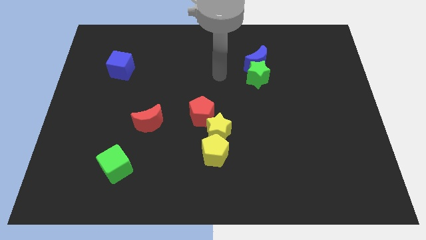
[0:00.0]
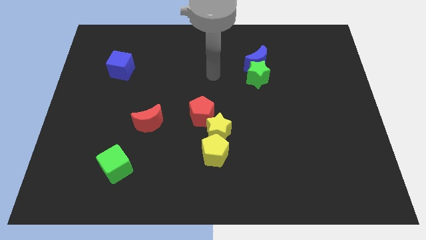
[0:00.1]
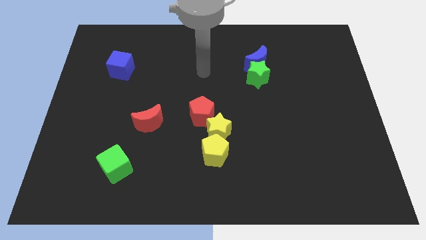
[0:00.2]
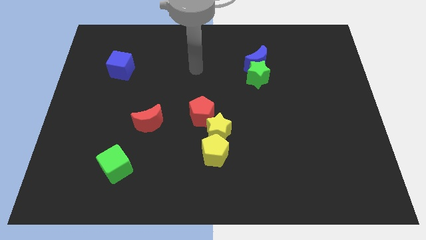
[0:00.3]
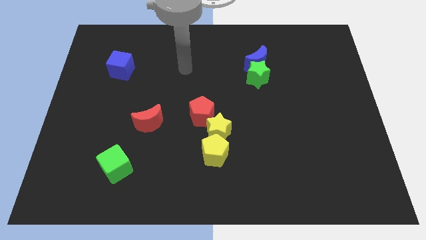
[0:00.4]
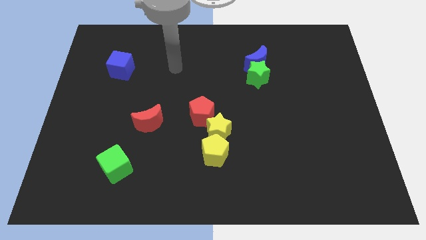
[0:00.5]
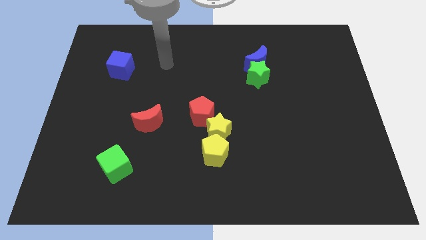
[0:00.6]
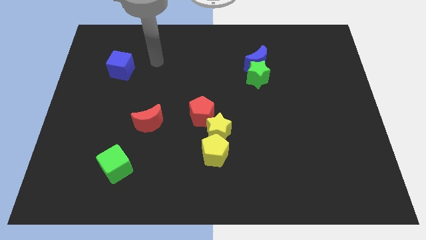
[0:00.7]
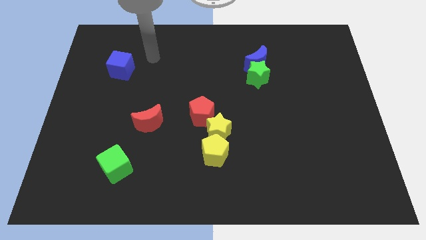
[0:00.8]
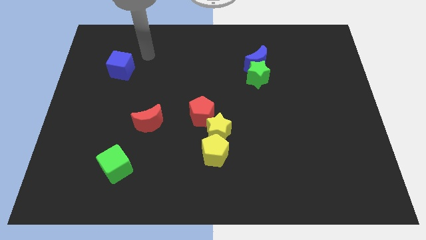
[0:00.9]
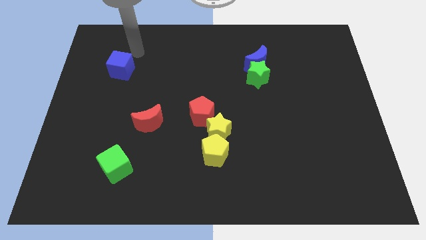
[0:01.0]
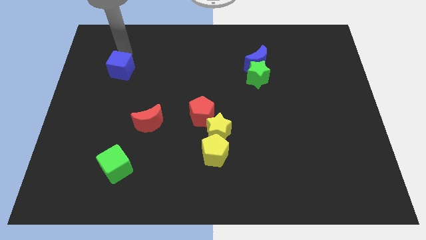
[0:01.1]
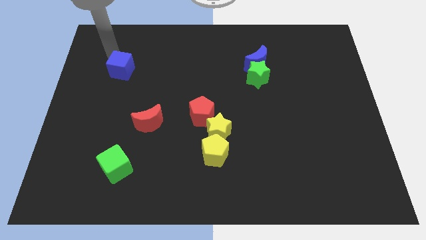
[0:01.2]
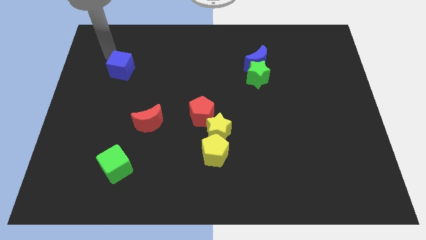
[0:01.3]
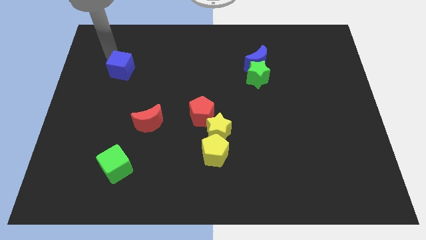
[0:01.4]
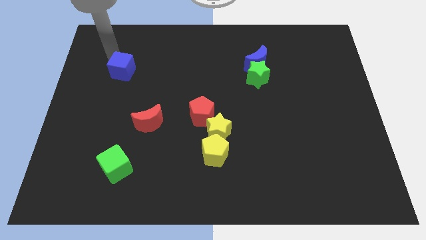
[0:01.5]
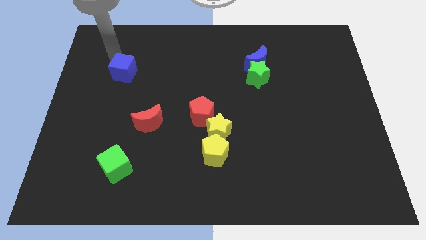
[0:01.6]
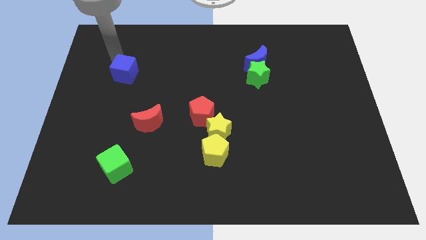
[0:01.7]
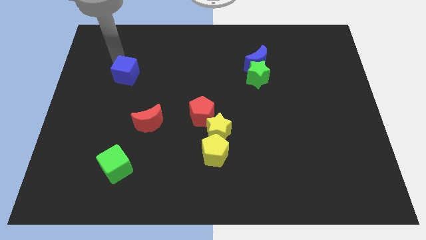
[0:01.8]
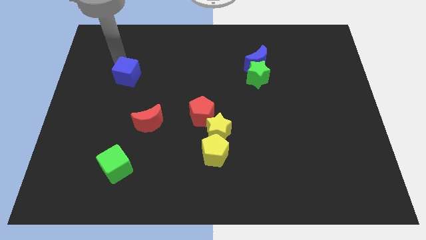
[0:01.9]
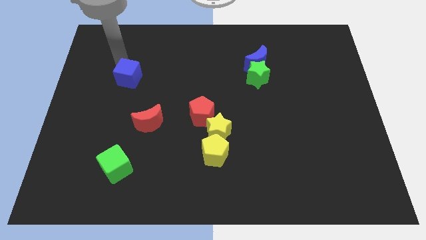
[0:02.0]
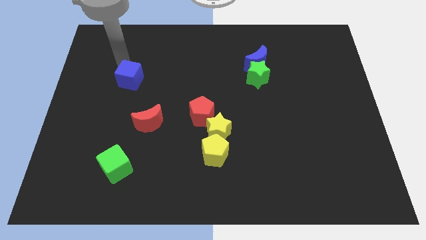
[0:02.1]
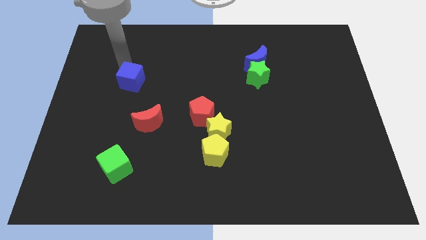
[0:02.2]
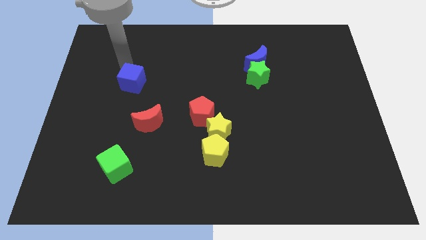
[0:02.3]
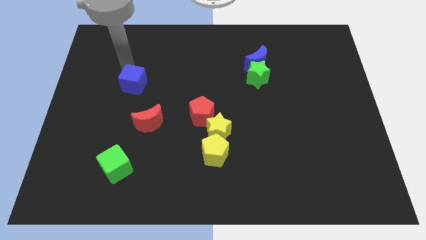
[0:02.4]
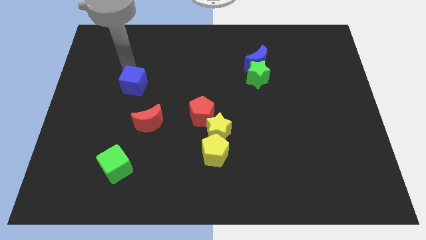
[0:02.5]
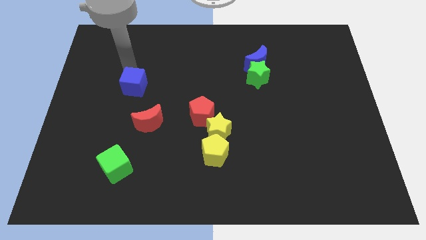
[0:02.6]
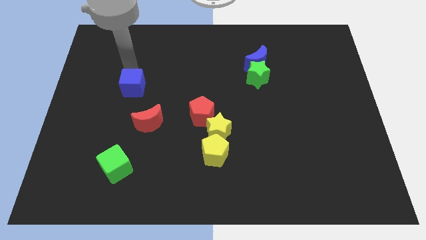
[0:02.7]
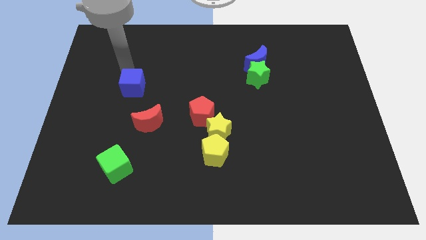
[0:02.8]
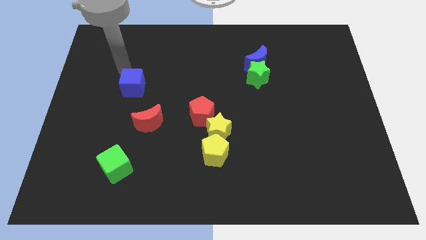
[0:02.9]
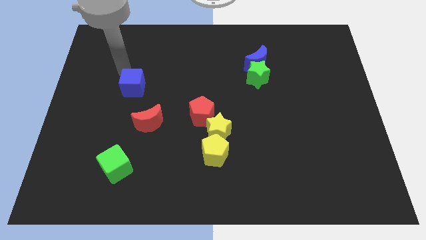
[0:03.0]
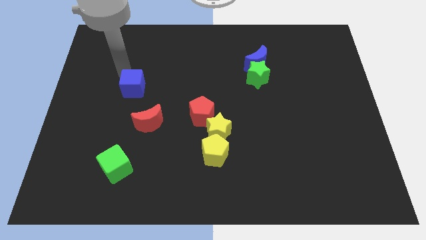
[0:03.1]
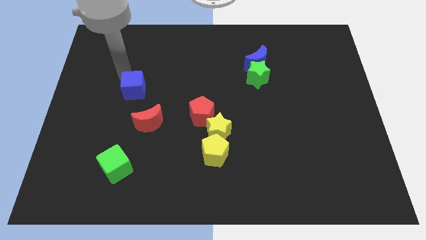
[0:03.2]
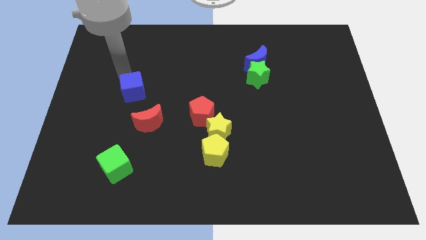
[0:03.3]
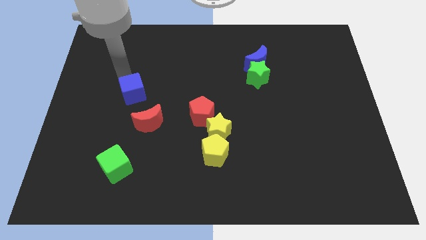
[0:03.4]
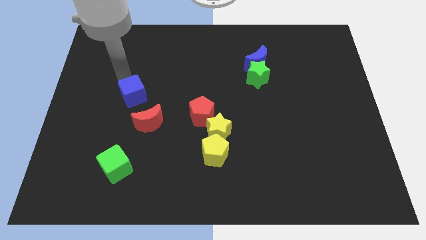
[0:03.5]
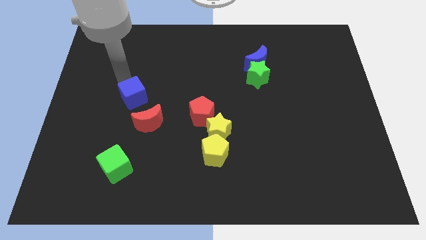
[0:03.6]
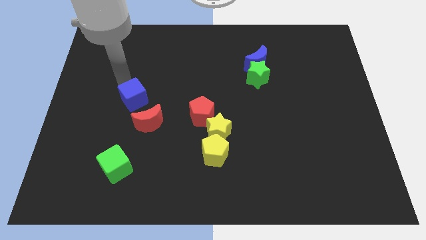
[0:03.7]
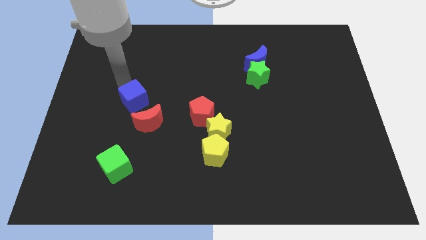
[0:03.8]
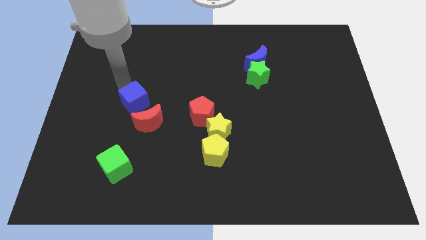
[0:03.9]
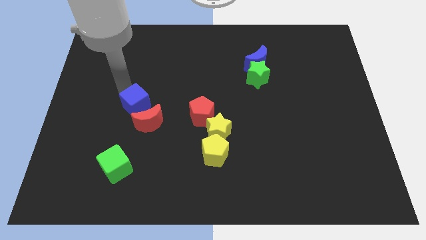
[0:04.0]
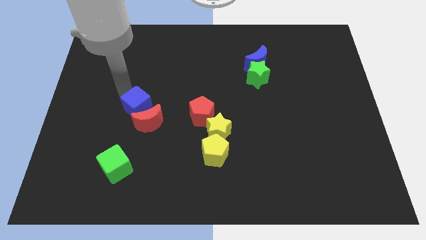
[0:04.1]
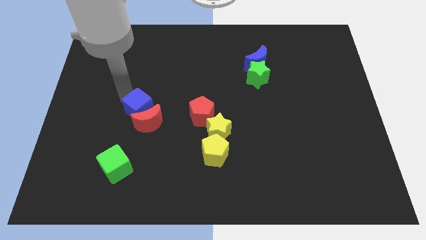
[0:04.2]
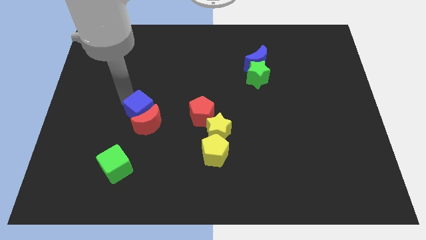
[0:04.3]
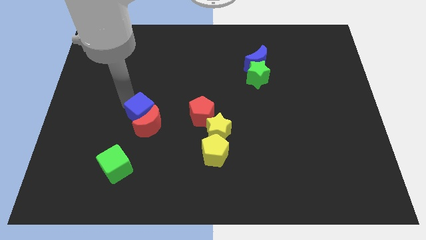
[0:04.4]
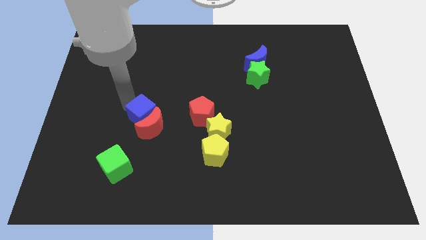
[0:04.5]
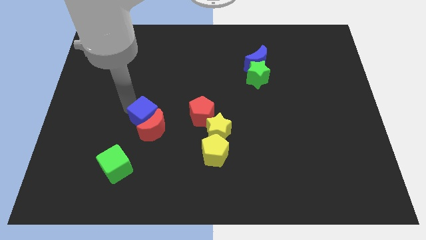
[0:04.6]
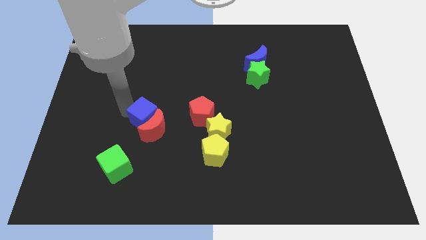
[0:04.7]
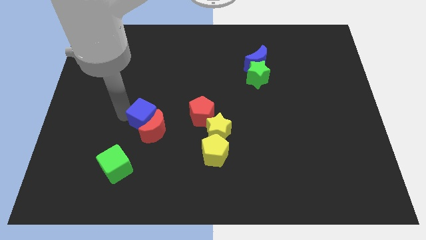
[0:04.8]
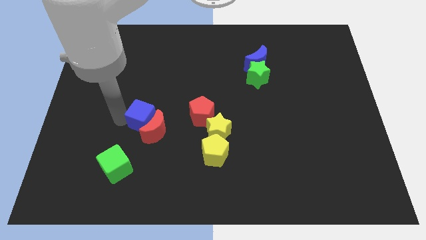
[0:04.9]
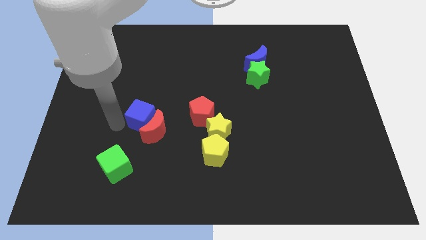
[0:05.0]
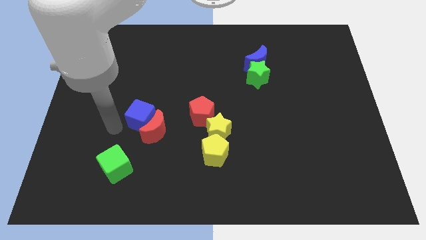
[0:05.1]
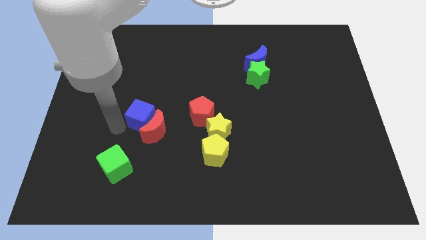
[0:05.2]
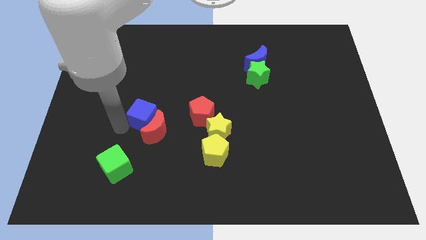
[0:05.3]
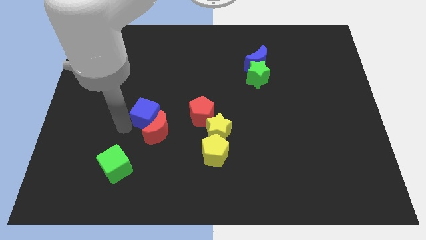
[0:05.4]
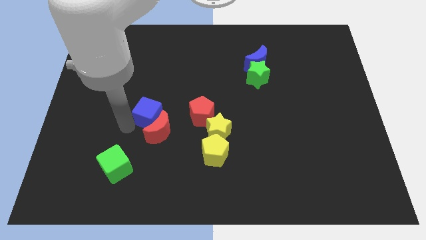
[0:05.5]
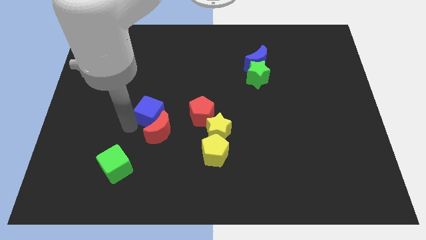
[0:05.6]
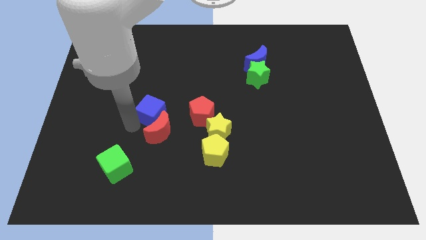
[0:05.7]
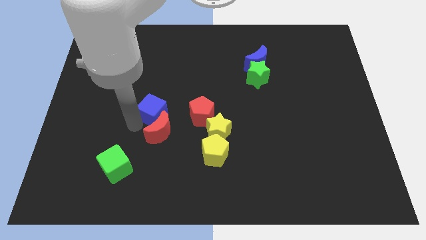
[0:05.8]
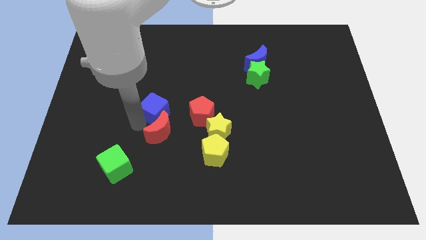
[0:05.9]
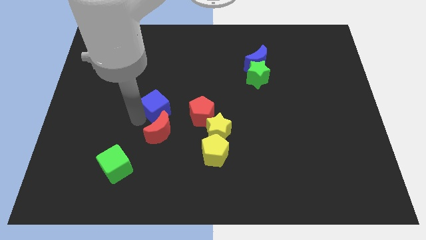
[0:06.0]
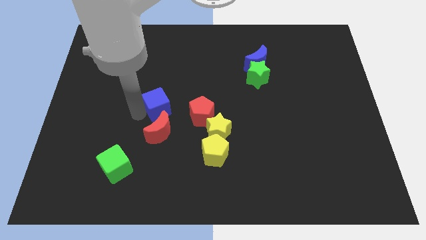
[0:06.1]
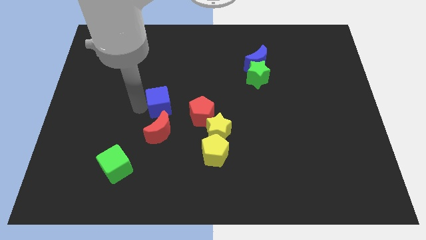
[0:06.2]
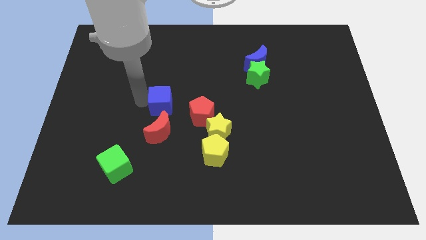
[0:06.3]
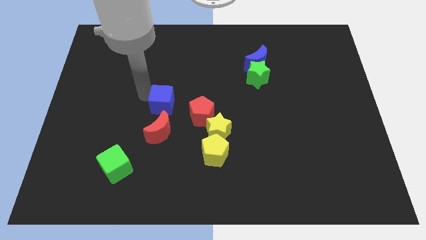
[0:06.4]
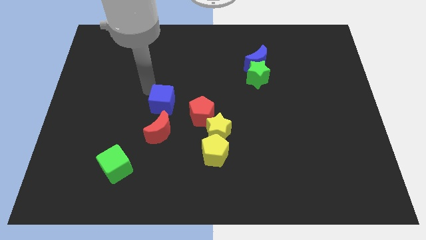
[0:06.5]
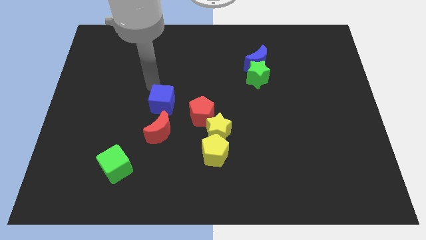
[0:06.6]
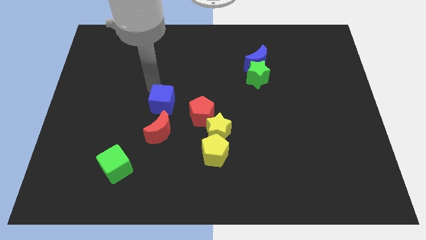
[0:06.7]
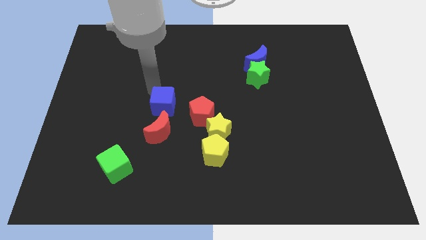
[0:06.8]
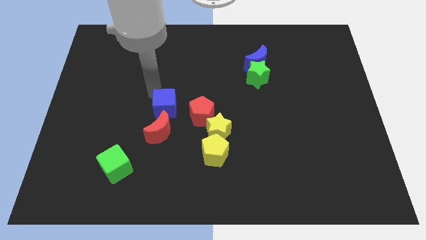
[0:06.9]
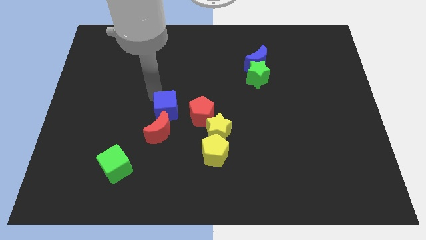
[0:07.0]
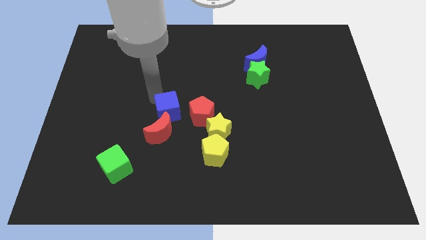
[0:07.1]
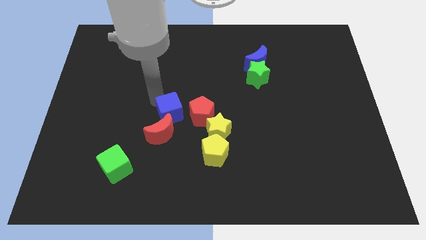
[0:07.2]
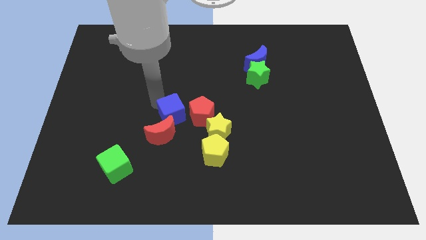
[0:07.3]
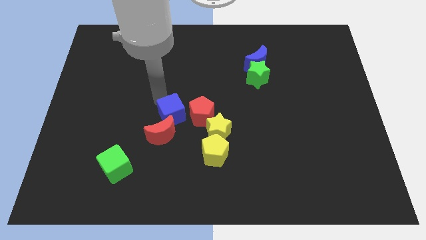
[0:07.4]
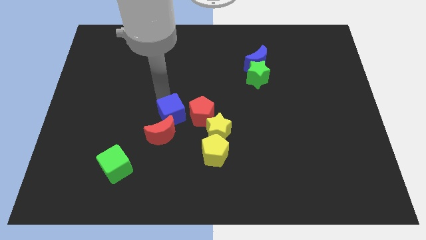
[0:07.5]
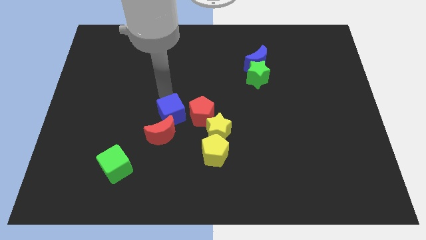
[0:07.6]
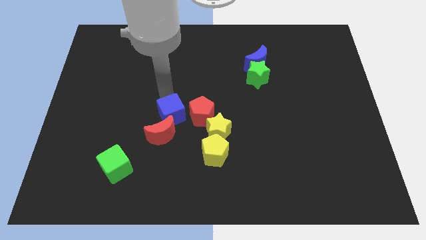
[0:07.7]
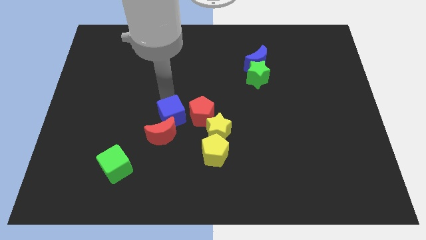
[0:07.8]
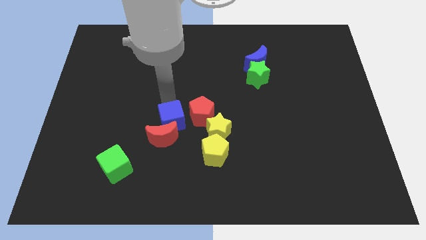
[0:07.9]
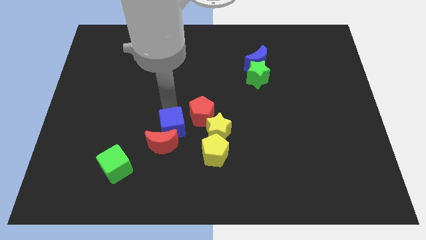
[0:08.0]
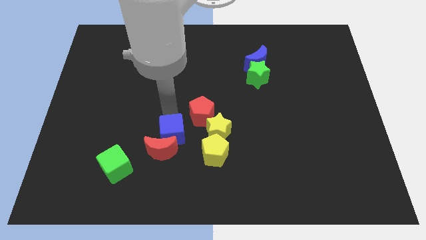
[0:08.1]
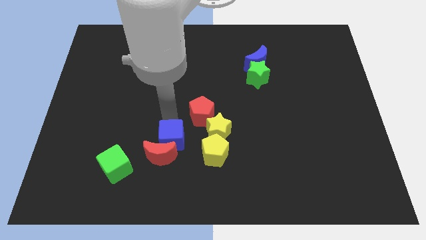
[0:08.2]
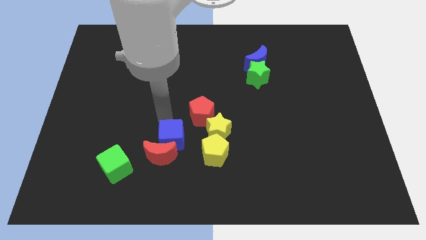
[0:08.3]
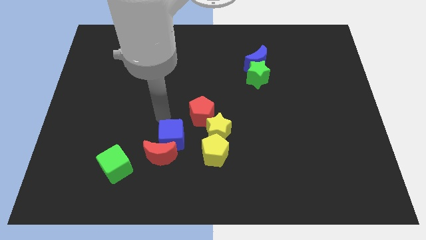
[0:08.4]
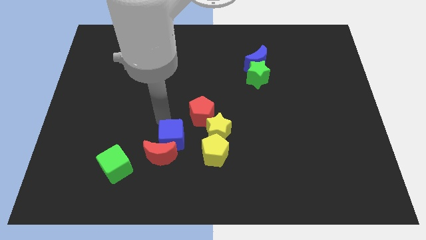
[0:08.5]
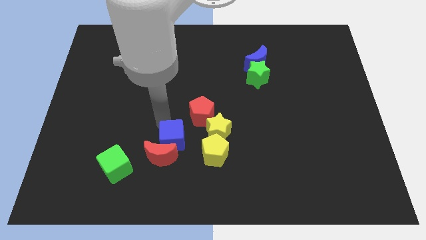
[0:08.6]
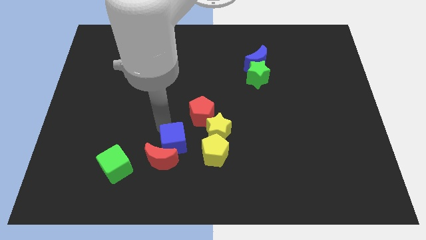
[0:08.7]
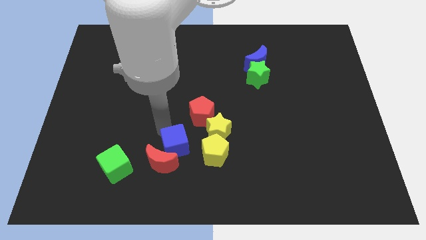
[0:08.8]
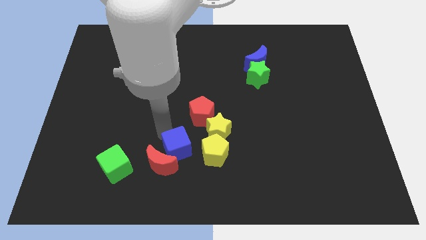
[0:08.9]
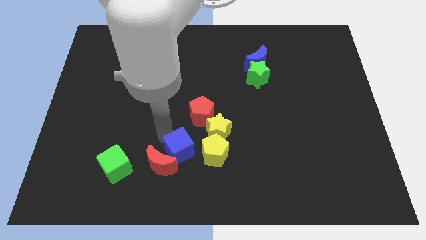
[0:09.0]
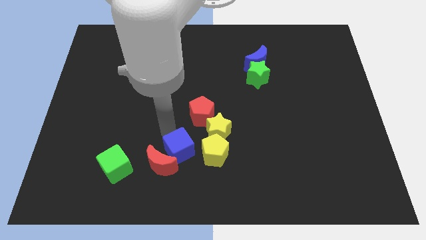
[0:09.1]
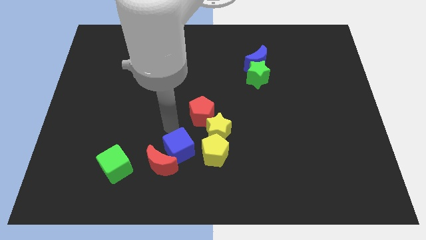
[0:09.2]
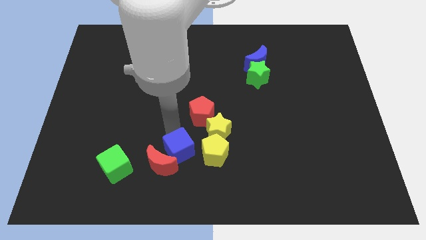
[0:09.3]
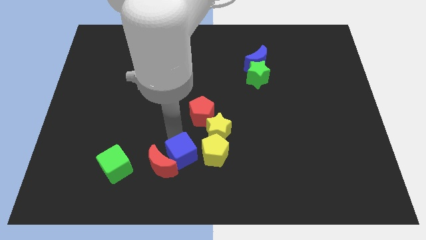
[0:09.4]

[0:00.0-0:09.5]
slide the blue cube diagonally down and to the left of the yellow pentagon
